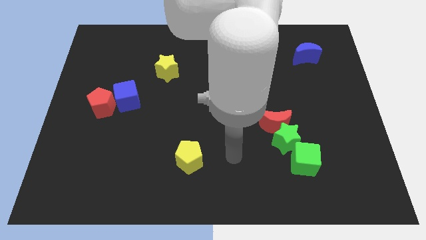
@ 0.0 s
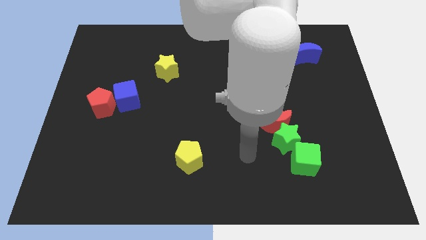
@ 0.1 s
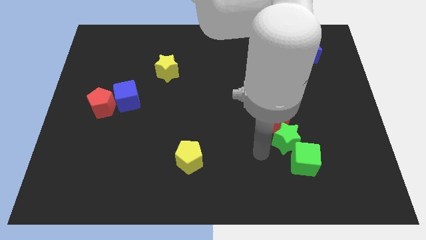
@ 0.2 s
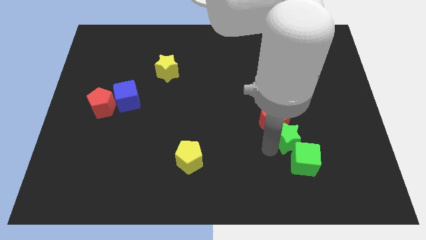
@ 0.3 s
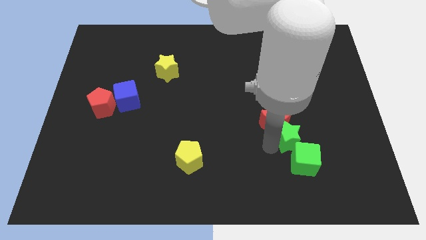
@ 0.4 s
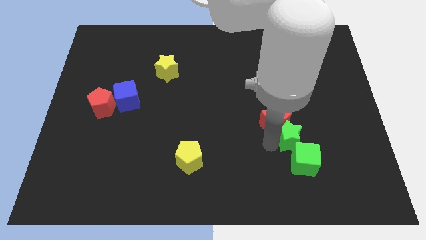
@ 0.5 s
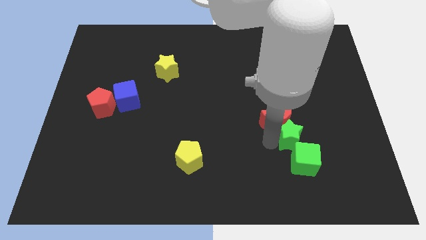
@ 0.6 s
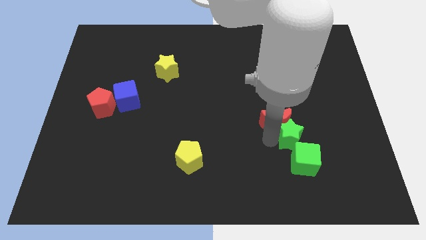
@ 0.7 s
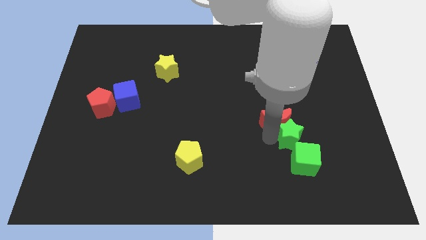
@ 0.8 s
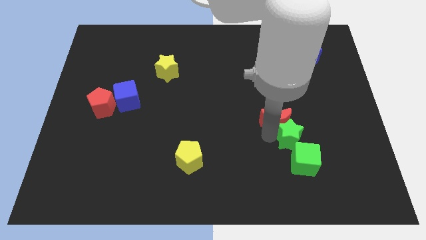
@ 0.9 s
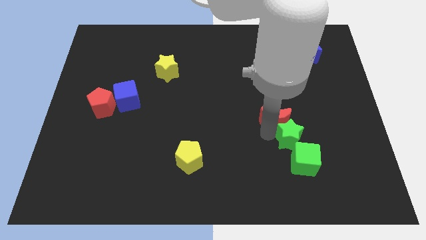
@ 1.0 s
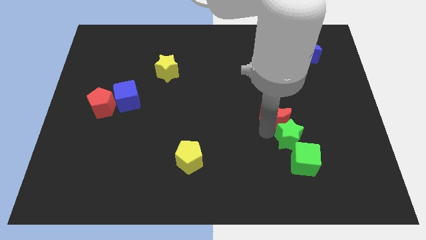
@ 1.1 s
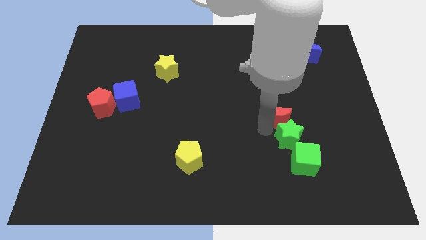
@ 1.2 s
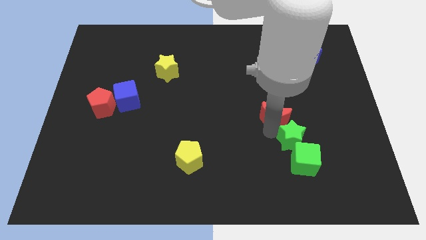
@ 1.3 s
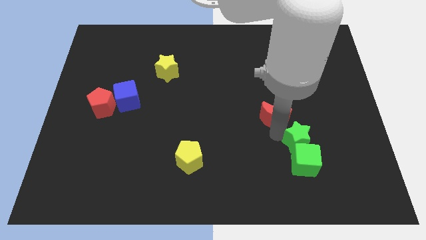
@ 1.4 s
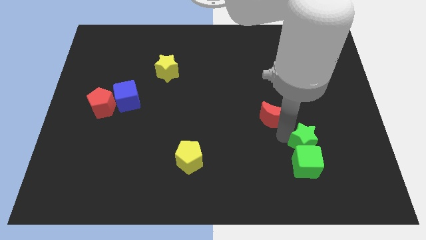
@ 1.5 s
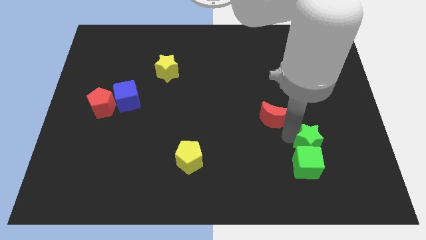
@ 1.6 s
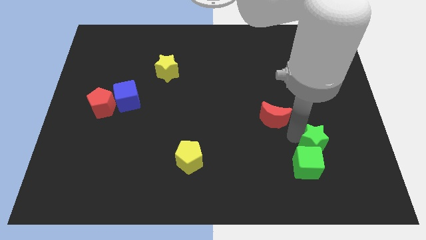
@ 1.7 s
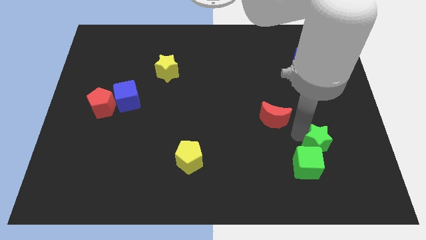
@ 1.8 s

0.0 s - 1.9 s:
move the red moon away from the green star

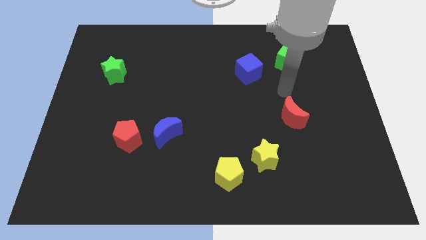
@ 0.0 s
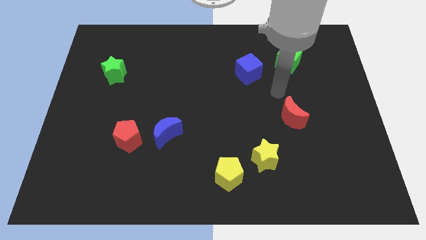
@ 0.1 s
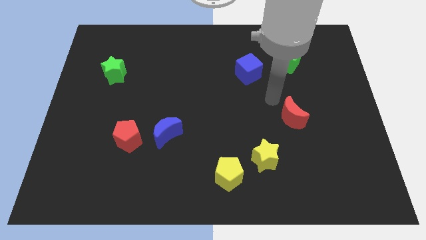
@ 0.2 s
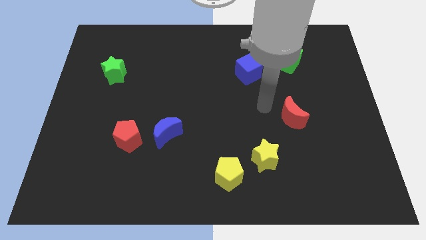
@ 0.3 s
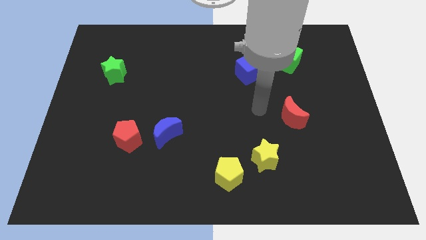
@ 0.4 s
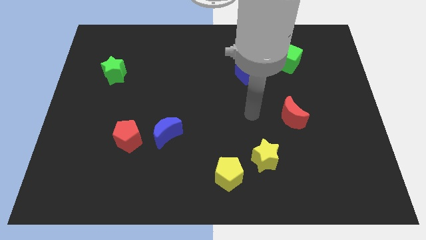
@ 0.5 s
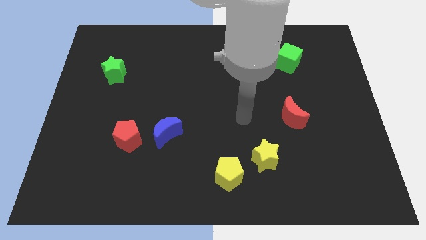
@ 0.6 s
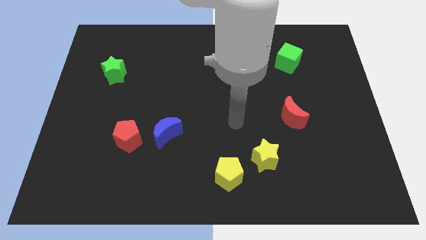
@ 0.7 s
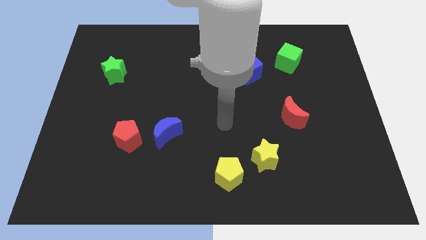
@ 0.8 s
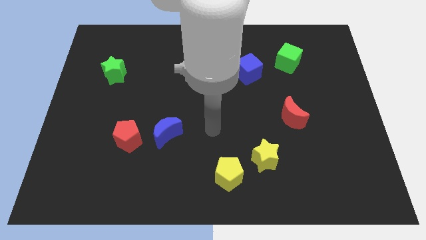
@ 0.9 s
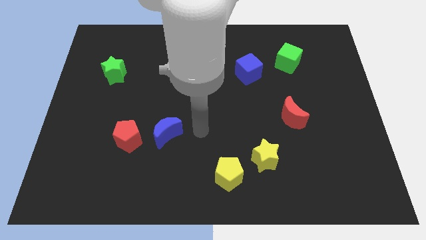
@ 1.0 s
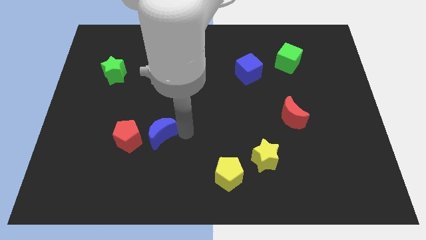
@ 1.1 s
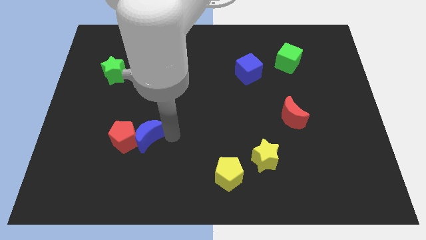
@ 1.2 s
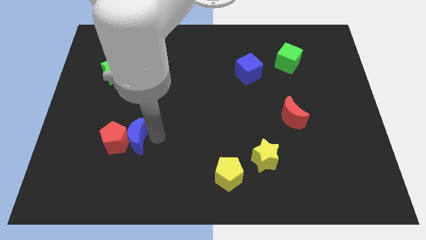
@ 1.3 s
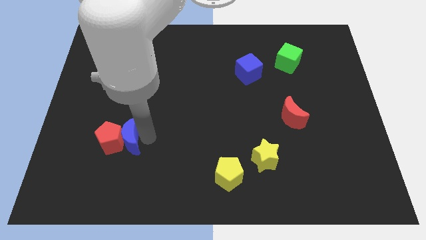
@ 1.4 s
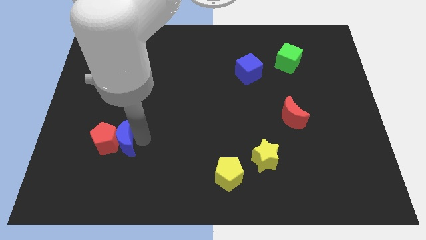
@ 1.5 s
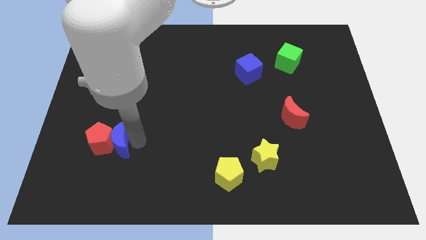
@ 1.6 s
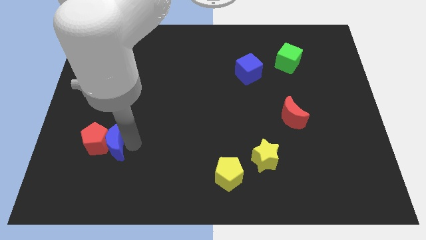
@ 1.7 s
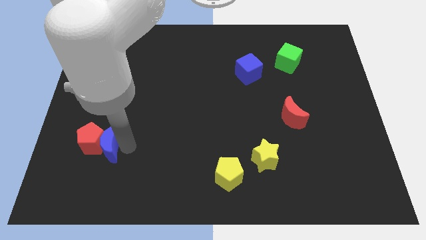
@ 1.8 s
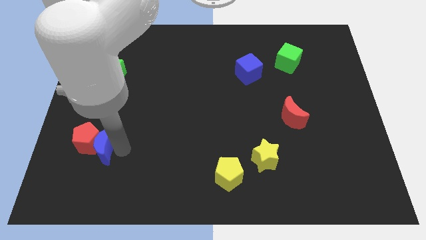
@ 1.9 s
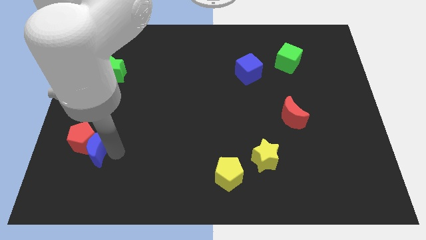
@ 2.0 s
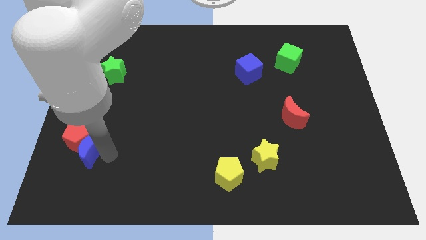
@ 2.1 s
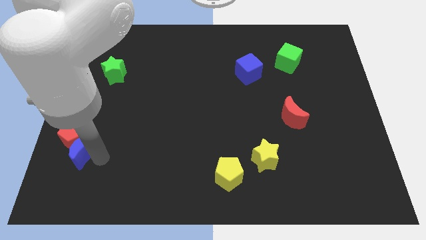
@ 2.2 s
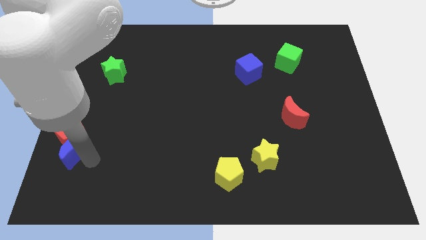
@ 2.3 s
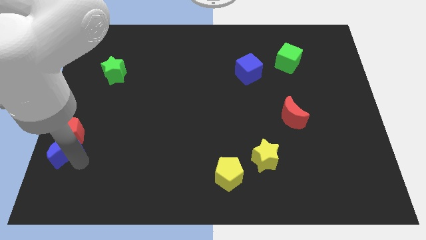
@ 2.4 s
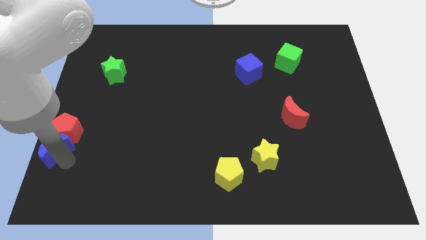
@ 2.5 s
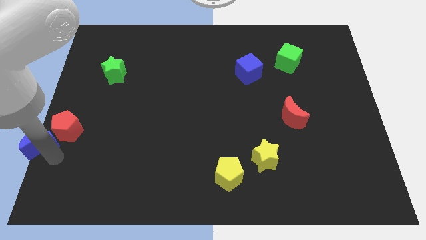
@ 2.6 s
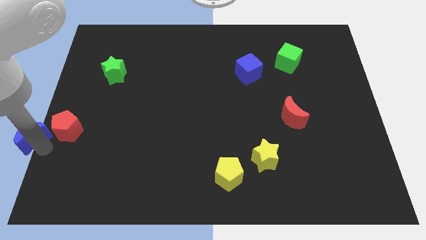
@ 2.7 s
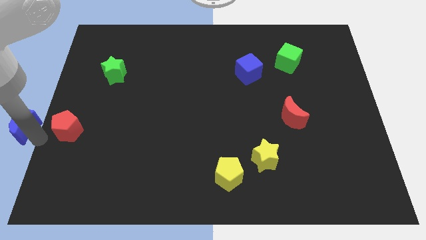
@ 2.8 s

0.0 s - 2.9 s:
separate the red pentagon from the blue moon

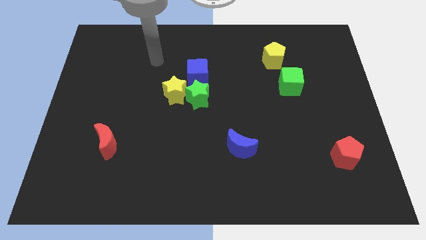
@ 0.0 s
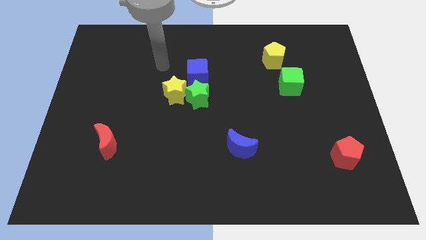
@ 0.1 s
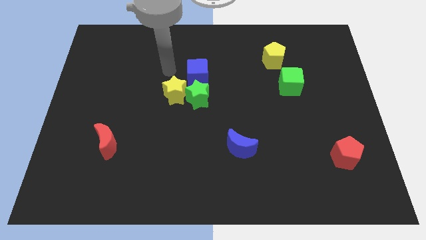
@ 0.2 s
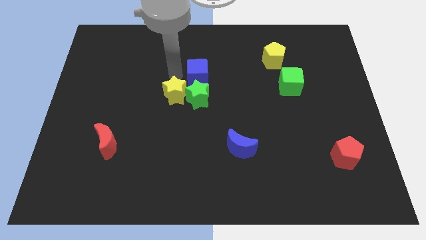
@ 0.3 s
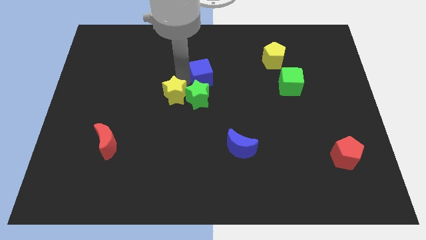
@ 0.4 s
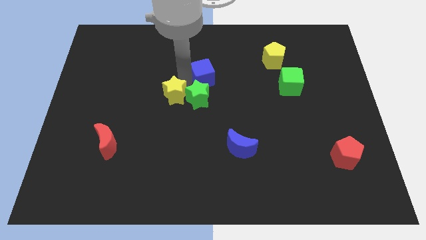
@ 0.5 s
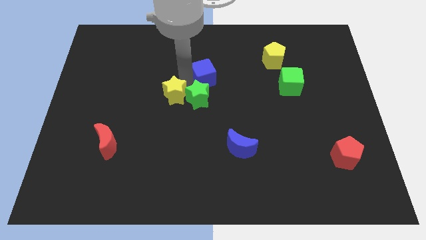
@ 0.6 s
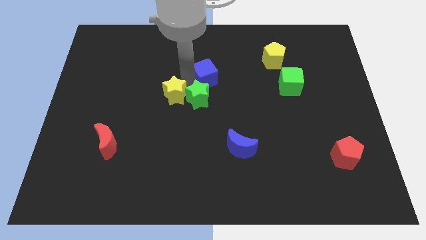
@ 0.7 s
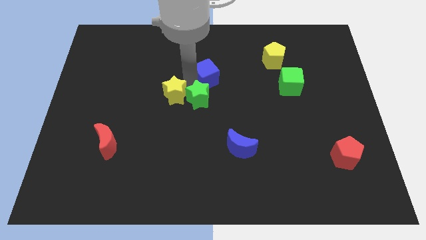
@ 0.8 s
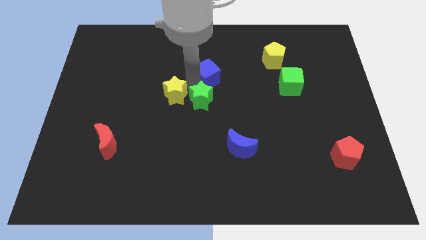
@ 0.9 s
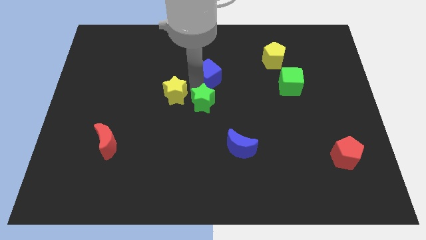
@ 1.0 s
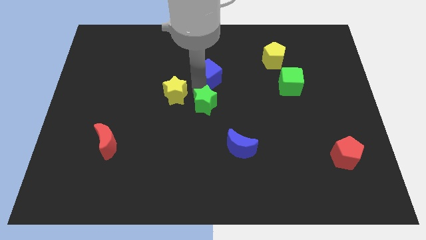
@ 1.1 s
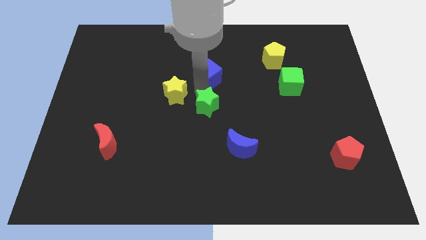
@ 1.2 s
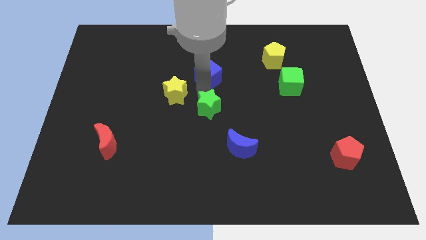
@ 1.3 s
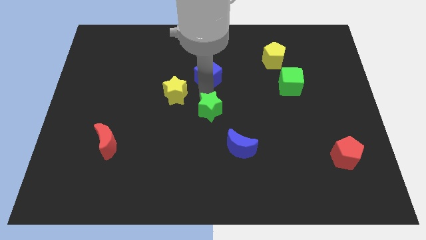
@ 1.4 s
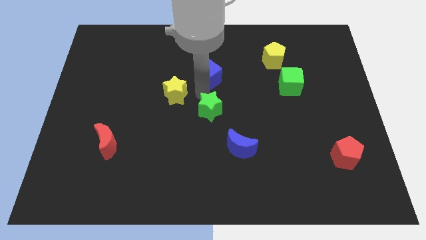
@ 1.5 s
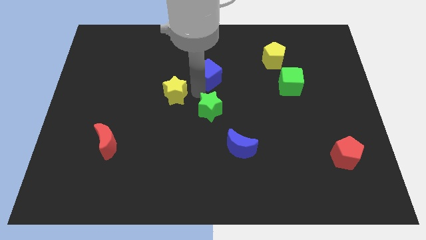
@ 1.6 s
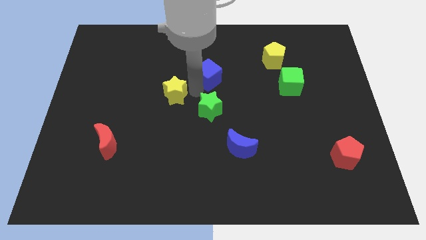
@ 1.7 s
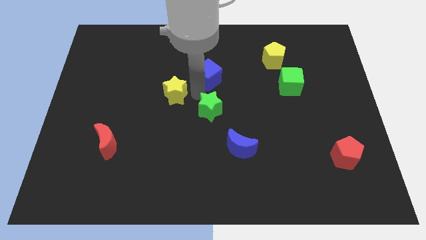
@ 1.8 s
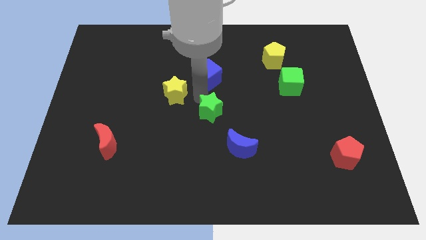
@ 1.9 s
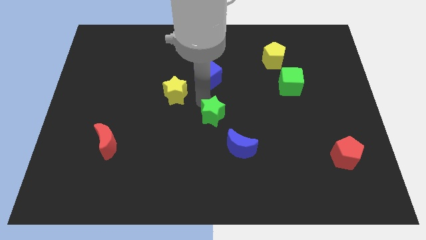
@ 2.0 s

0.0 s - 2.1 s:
move the green star away from the yellow star and blue cube

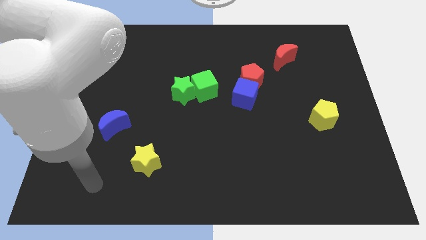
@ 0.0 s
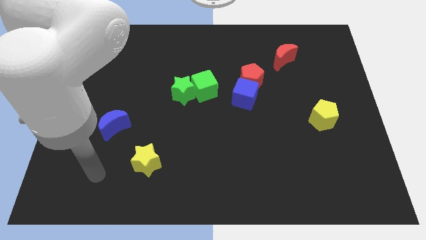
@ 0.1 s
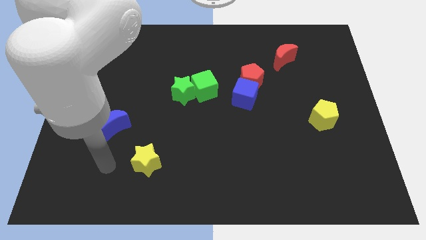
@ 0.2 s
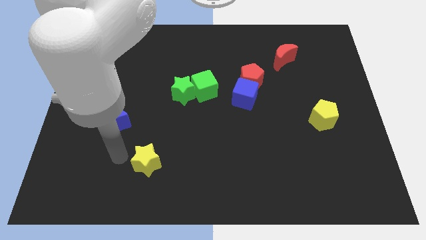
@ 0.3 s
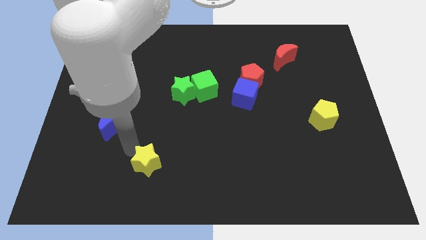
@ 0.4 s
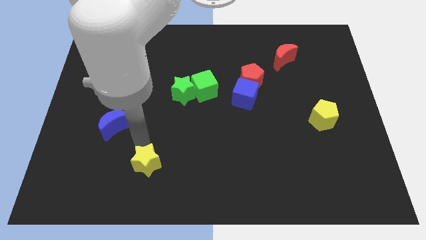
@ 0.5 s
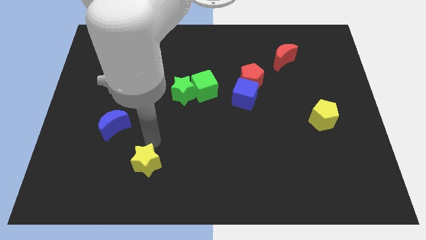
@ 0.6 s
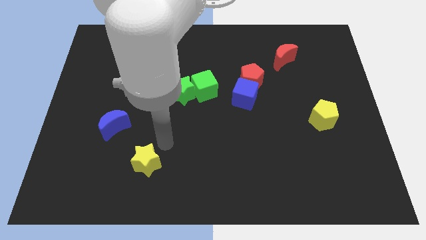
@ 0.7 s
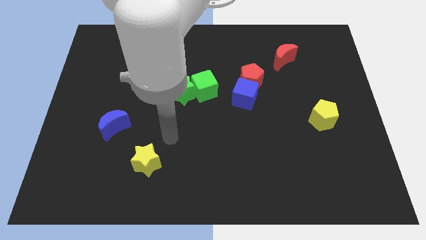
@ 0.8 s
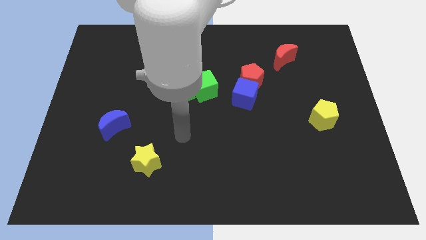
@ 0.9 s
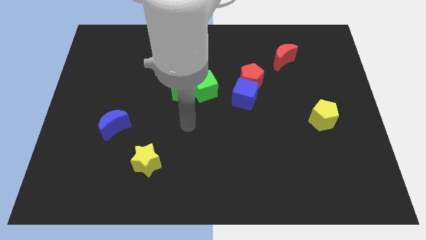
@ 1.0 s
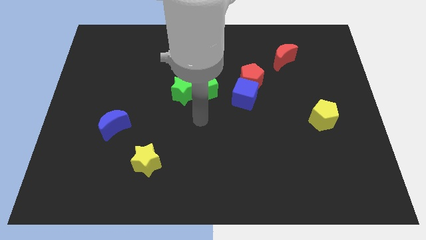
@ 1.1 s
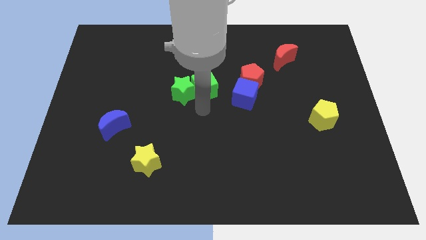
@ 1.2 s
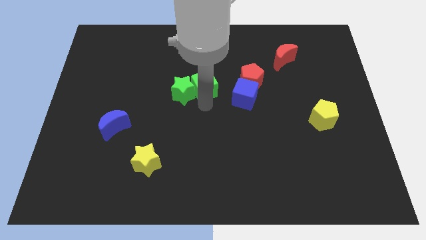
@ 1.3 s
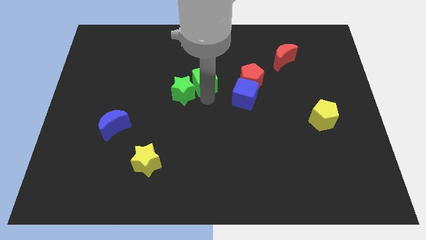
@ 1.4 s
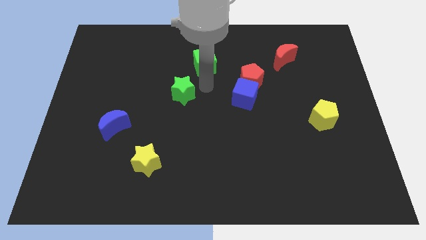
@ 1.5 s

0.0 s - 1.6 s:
move the green star away from the green cube

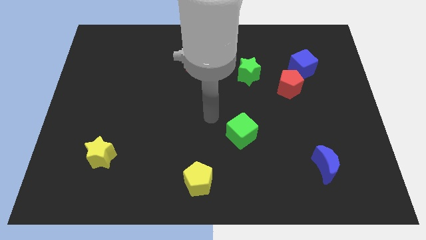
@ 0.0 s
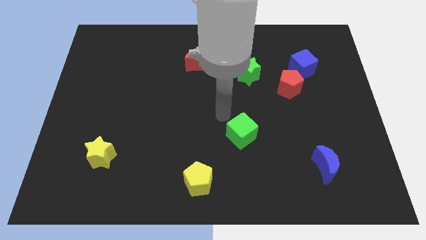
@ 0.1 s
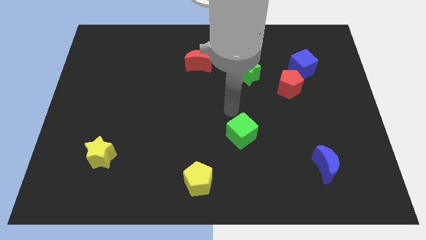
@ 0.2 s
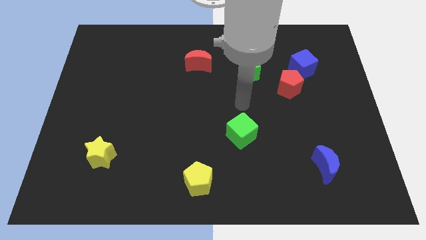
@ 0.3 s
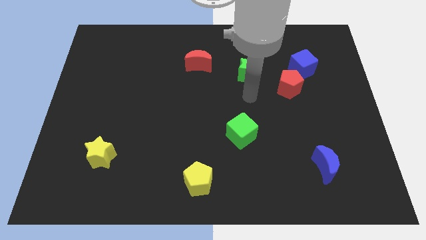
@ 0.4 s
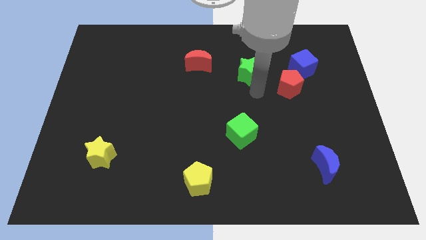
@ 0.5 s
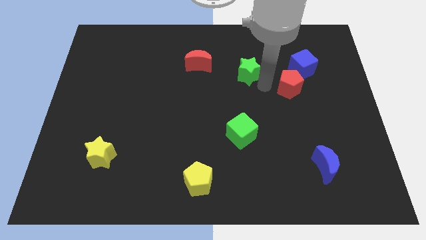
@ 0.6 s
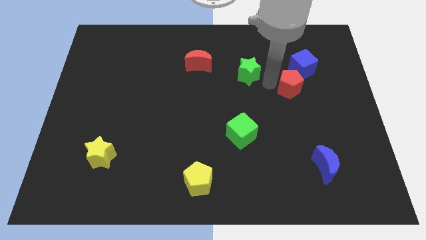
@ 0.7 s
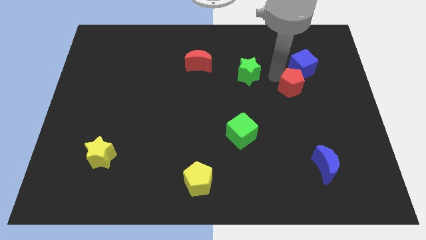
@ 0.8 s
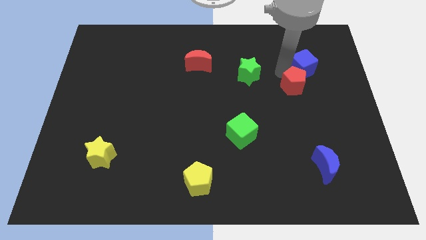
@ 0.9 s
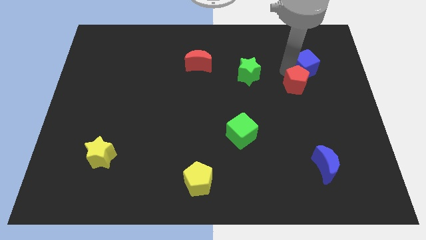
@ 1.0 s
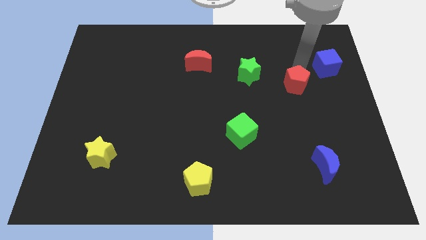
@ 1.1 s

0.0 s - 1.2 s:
move the red pentagon away from the blue cube
